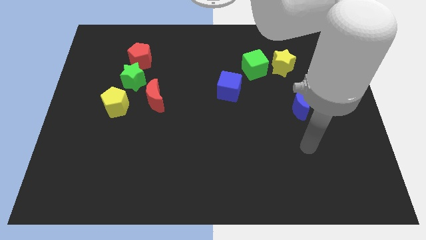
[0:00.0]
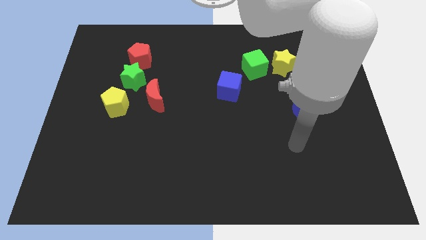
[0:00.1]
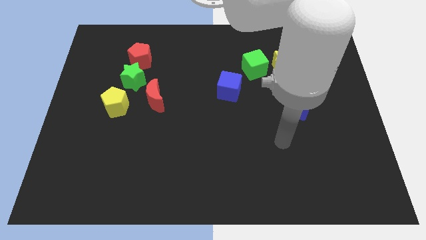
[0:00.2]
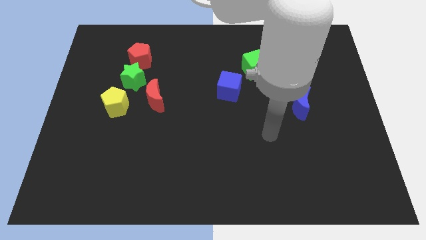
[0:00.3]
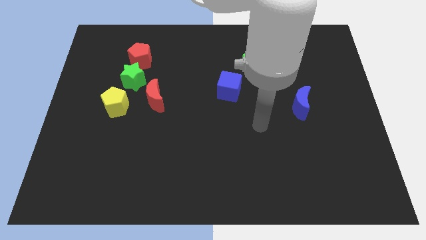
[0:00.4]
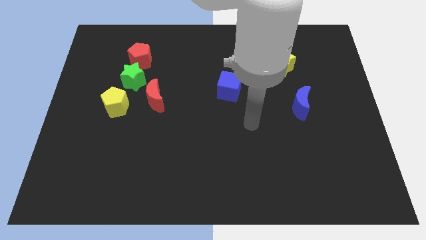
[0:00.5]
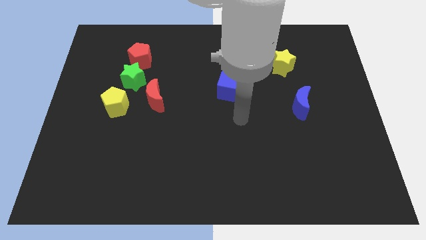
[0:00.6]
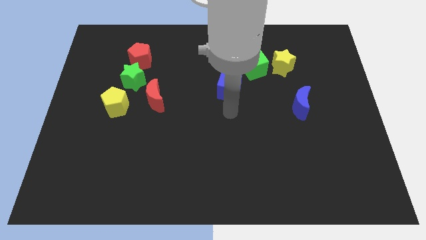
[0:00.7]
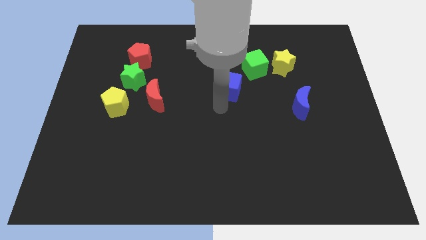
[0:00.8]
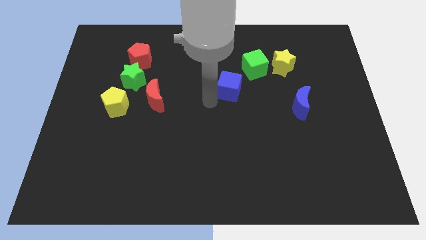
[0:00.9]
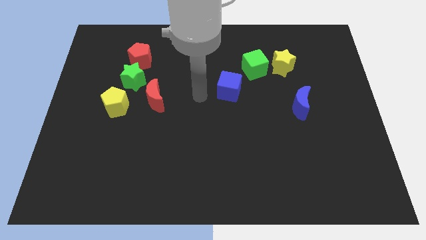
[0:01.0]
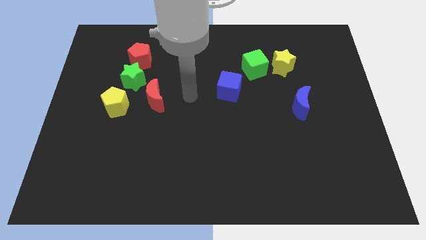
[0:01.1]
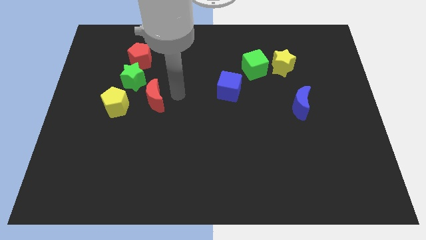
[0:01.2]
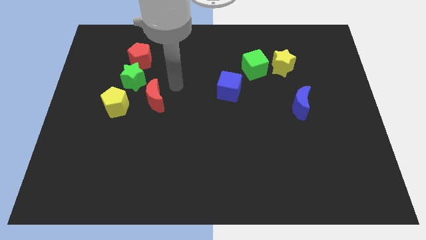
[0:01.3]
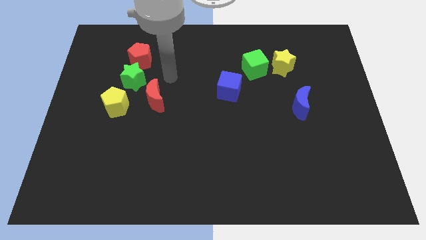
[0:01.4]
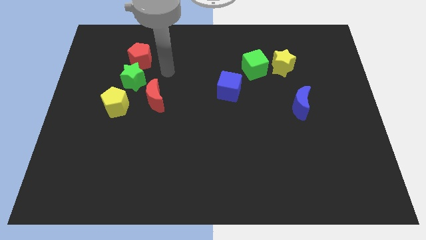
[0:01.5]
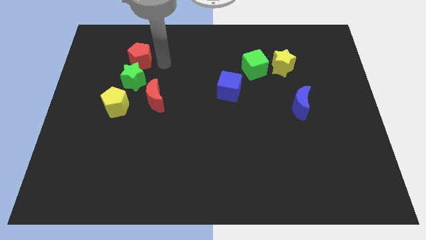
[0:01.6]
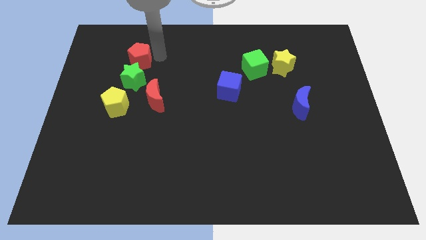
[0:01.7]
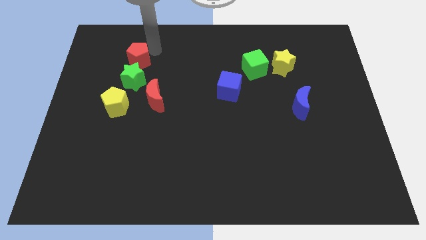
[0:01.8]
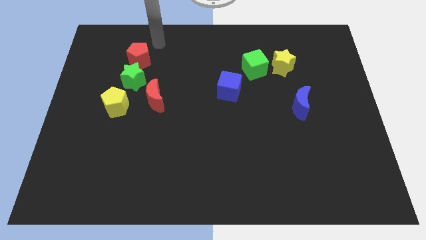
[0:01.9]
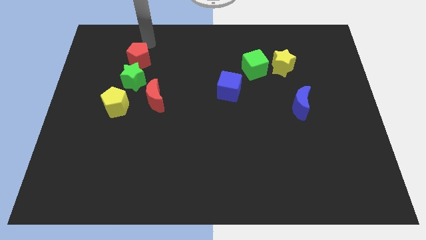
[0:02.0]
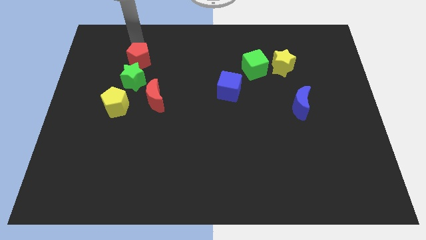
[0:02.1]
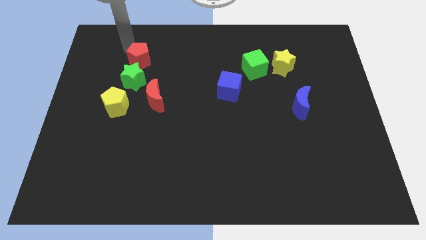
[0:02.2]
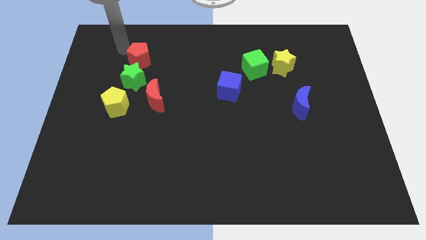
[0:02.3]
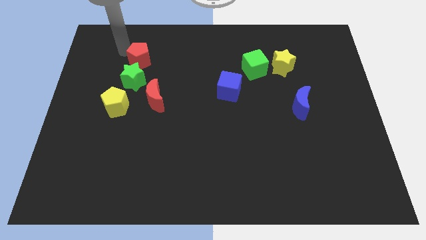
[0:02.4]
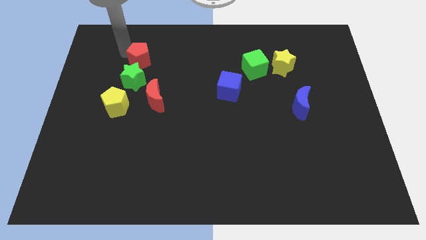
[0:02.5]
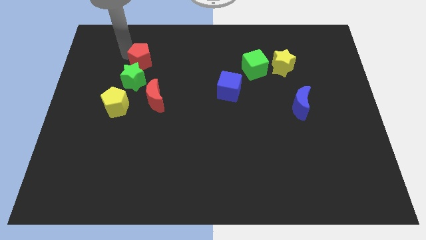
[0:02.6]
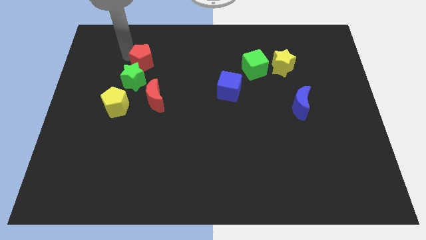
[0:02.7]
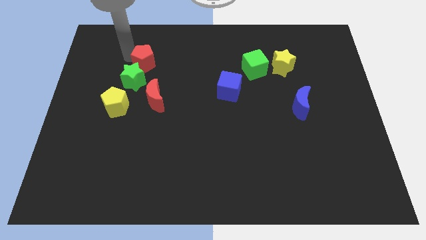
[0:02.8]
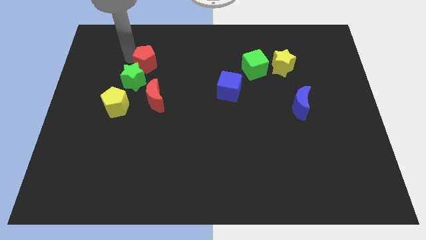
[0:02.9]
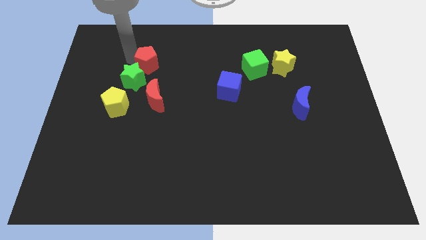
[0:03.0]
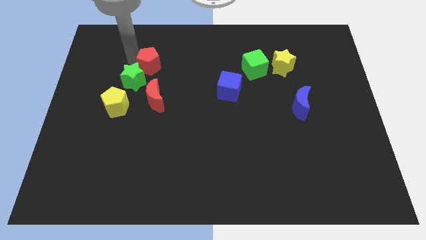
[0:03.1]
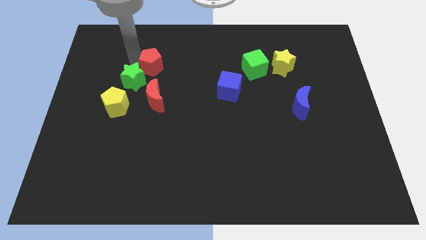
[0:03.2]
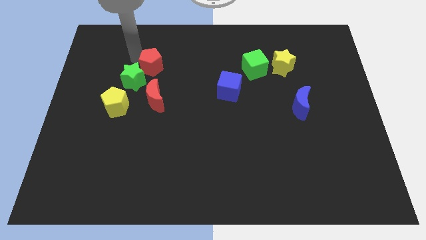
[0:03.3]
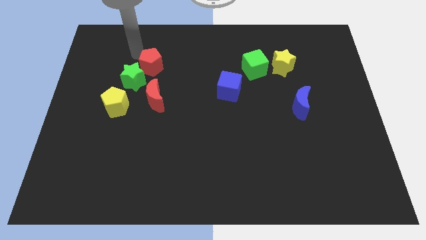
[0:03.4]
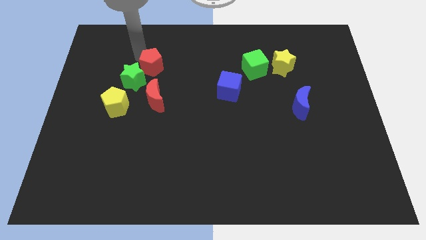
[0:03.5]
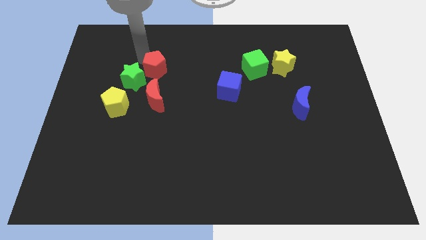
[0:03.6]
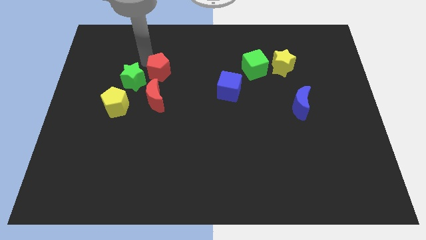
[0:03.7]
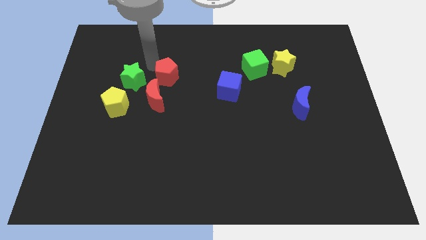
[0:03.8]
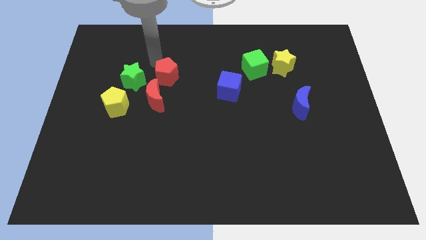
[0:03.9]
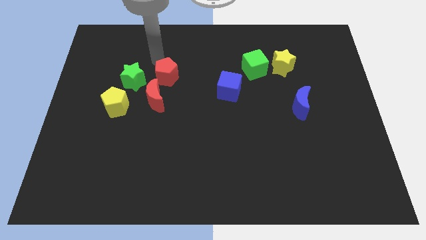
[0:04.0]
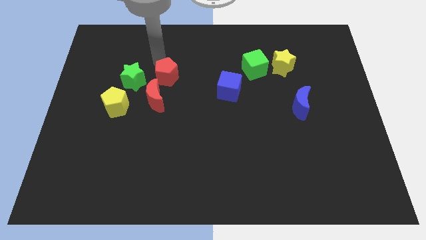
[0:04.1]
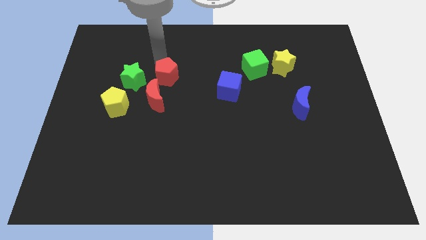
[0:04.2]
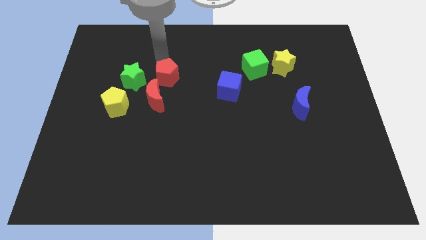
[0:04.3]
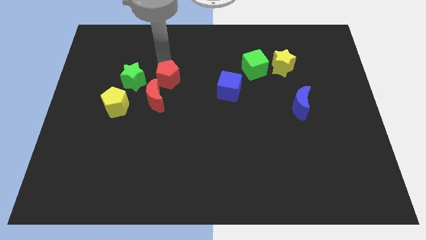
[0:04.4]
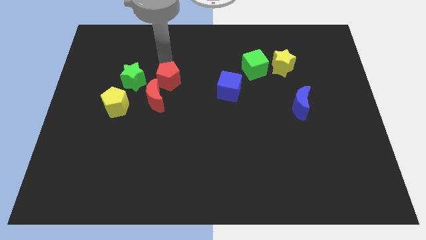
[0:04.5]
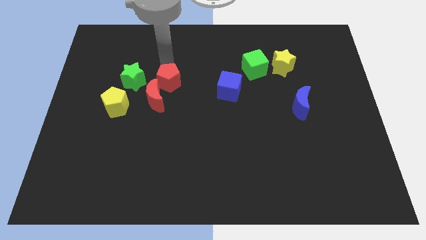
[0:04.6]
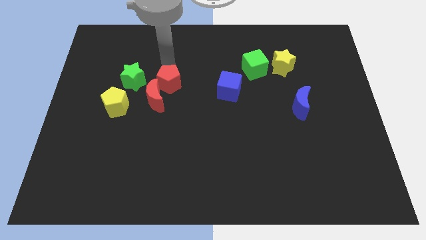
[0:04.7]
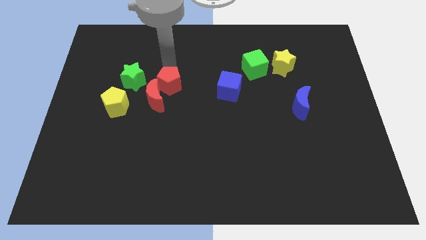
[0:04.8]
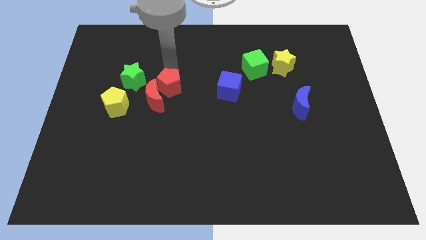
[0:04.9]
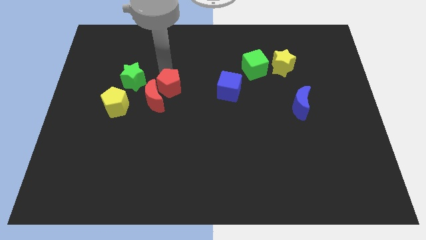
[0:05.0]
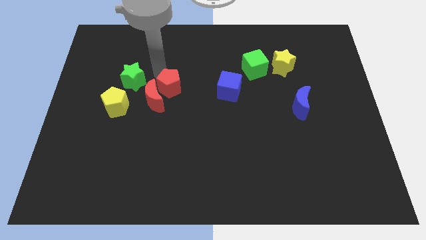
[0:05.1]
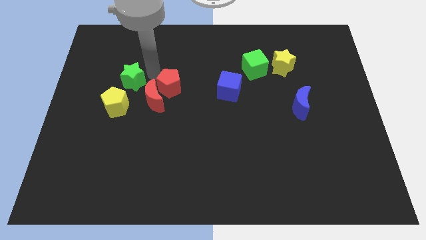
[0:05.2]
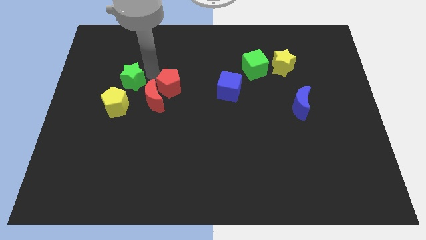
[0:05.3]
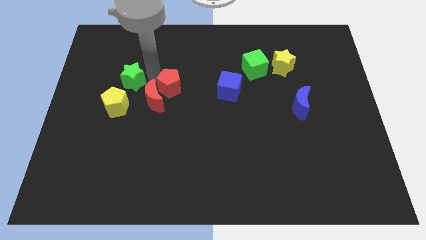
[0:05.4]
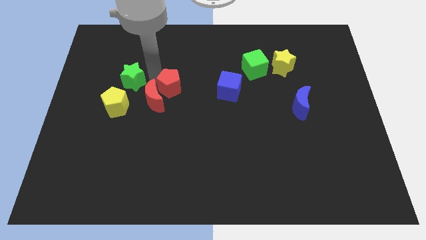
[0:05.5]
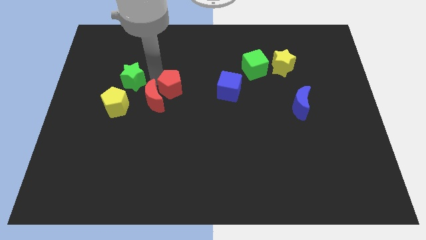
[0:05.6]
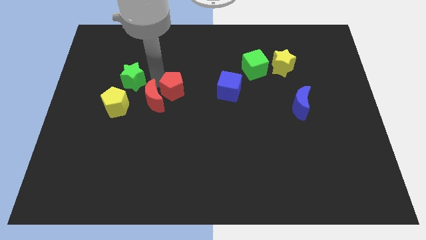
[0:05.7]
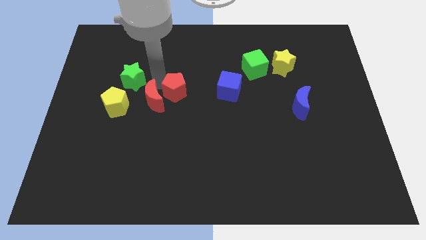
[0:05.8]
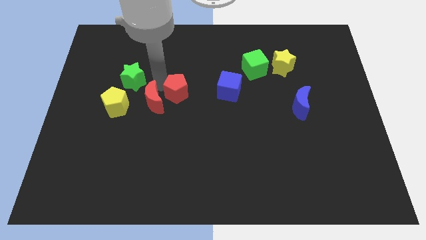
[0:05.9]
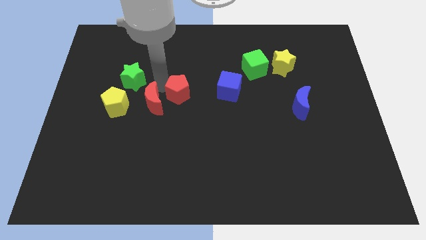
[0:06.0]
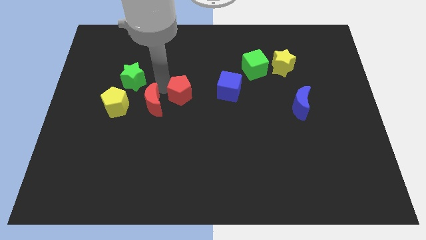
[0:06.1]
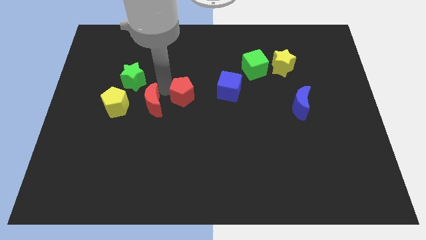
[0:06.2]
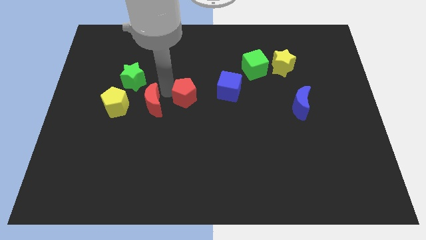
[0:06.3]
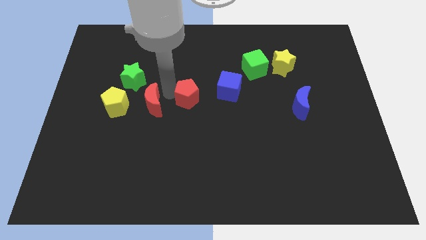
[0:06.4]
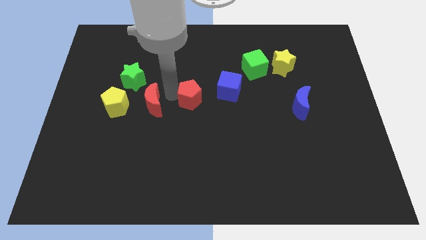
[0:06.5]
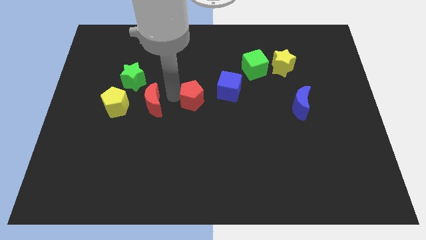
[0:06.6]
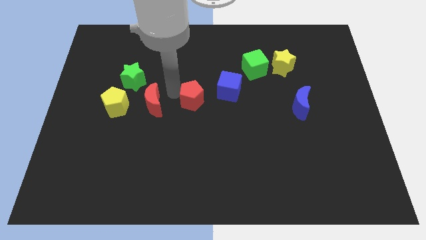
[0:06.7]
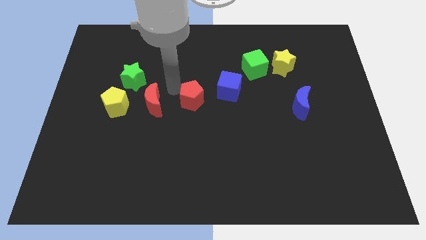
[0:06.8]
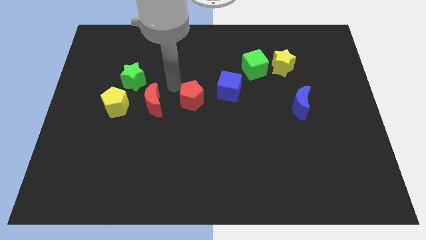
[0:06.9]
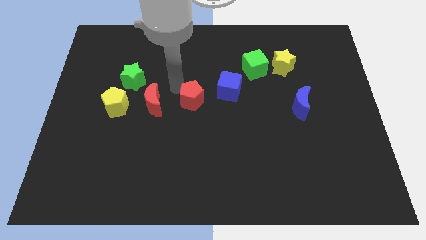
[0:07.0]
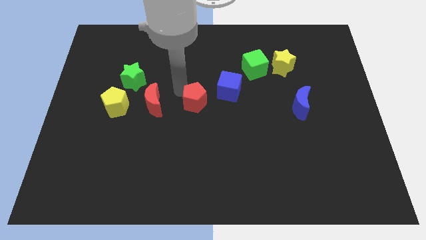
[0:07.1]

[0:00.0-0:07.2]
move the red pentagon downwards and to the right

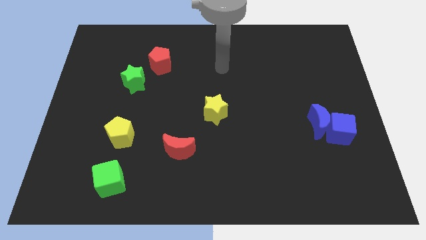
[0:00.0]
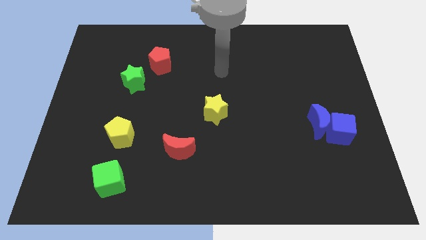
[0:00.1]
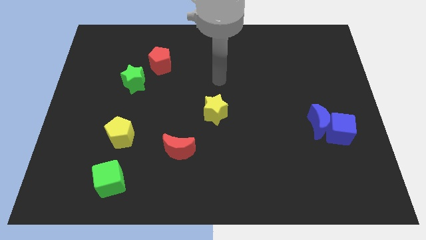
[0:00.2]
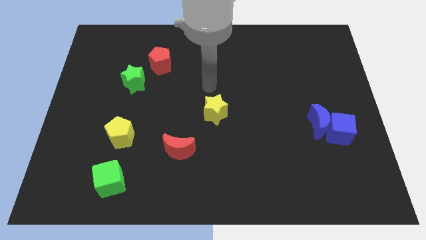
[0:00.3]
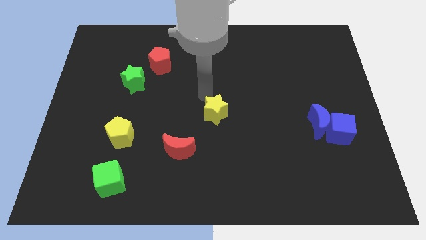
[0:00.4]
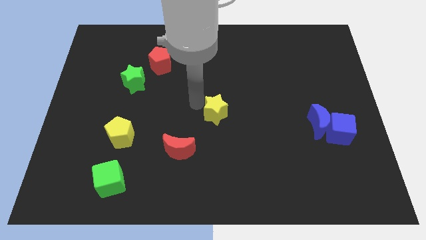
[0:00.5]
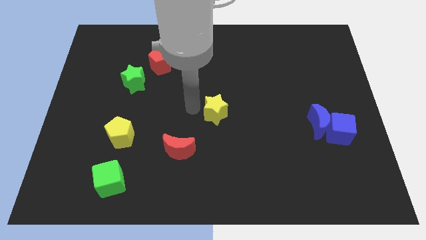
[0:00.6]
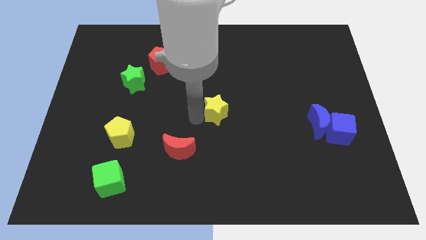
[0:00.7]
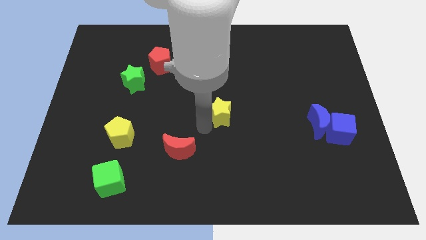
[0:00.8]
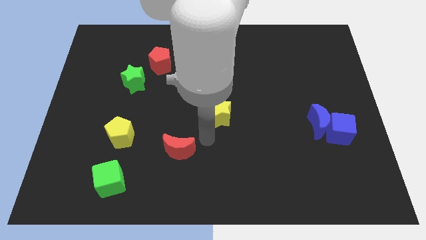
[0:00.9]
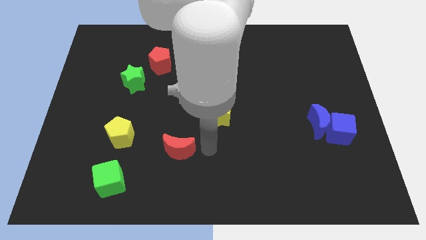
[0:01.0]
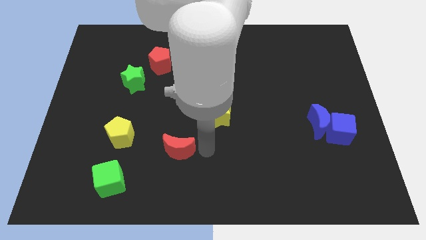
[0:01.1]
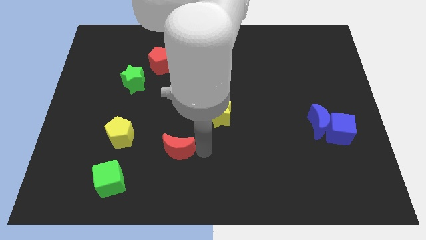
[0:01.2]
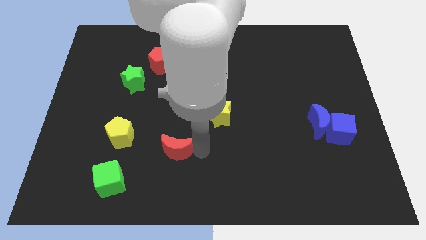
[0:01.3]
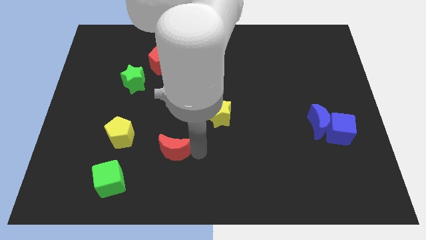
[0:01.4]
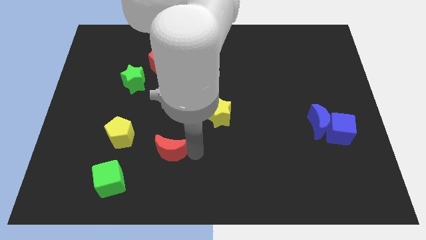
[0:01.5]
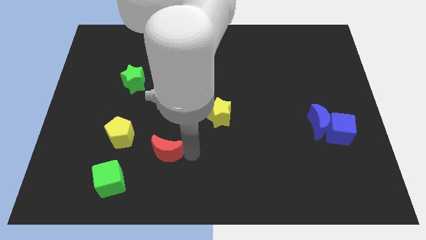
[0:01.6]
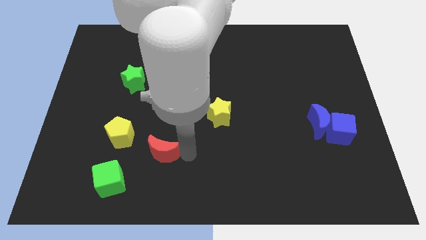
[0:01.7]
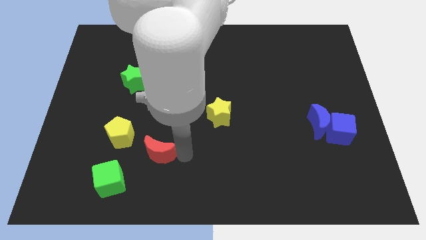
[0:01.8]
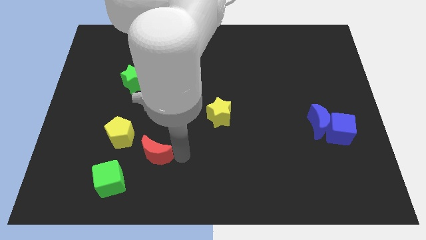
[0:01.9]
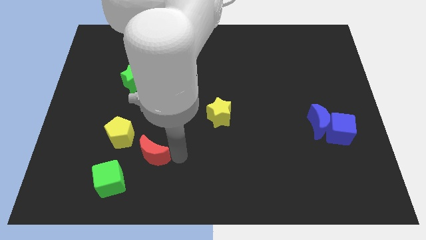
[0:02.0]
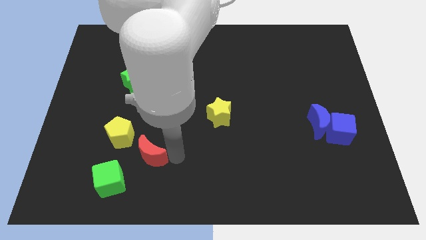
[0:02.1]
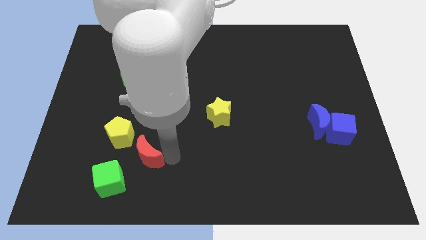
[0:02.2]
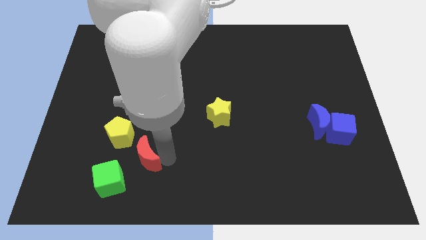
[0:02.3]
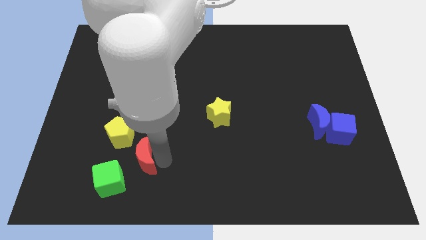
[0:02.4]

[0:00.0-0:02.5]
push the red moon a bit left
